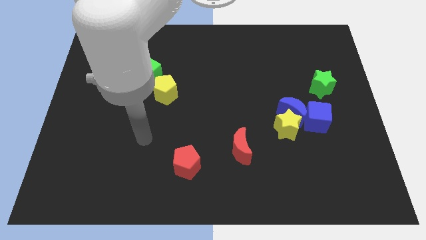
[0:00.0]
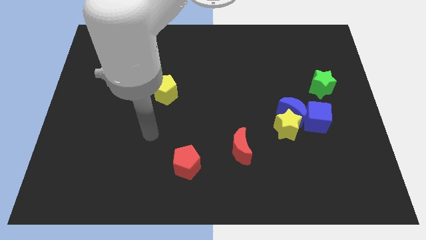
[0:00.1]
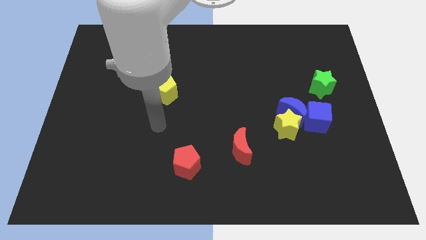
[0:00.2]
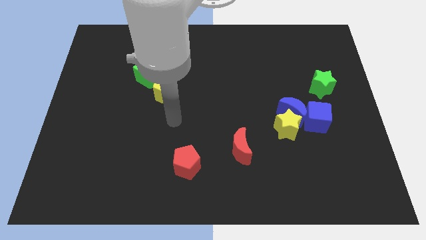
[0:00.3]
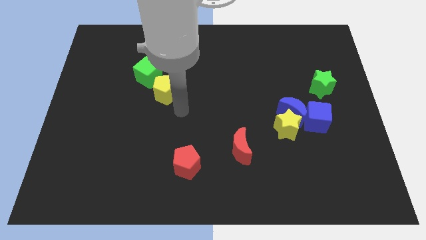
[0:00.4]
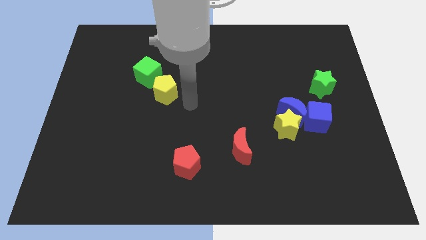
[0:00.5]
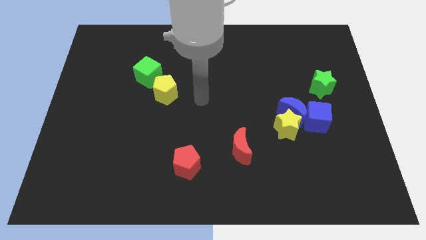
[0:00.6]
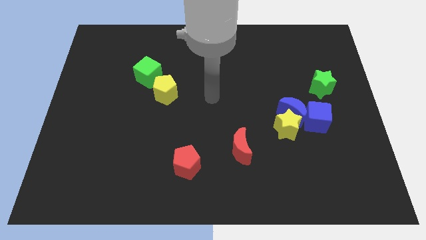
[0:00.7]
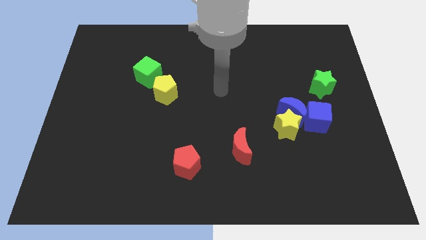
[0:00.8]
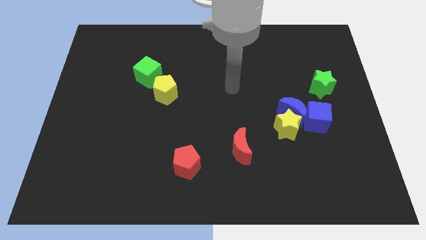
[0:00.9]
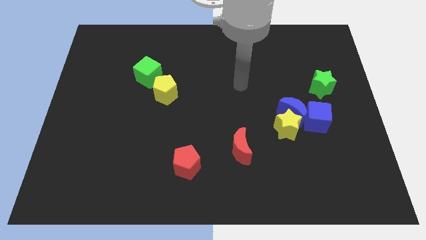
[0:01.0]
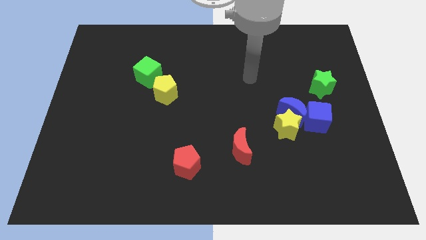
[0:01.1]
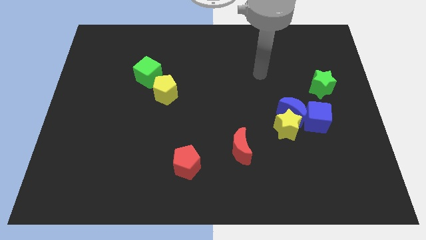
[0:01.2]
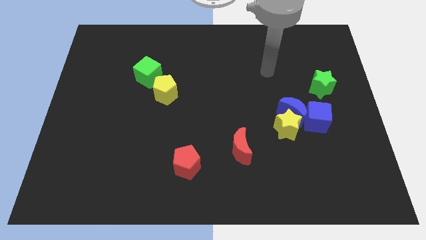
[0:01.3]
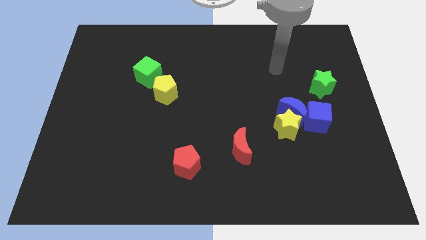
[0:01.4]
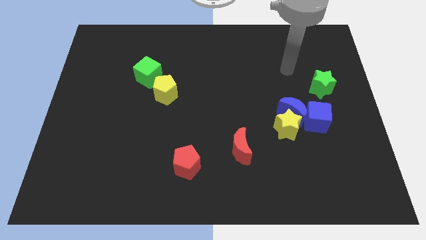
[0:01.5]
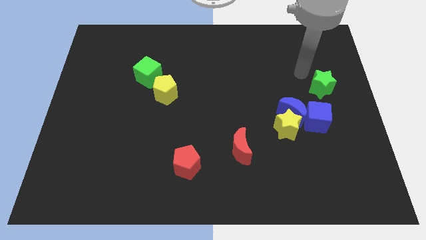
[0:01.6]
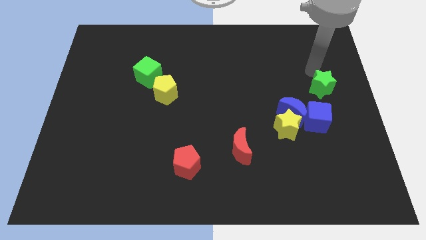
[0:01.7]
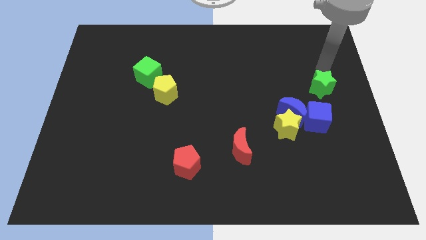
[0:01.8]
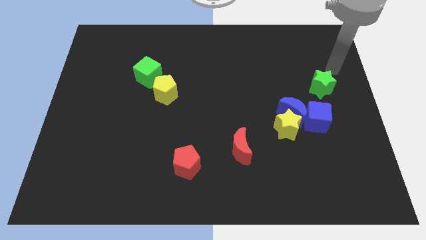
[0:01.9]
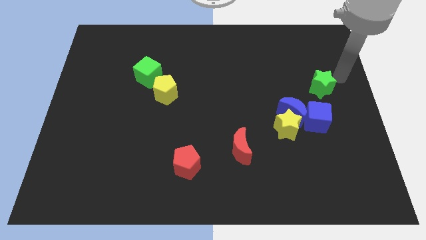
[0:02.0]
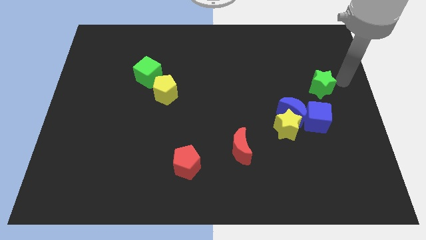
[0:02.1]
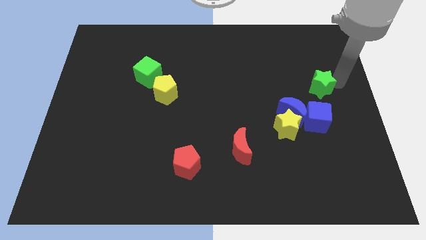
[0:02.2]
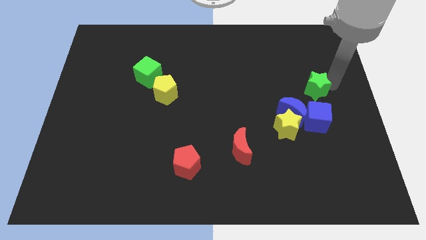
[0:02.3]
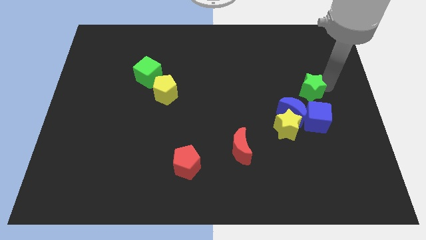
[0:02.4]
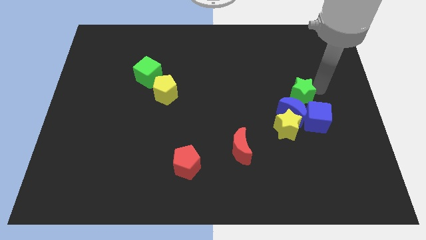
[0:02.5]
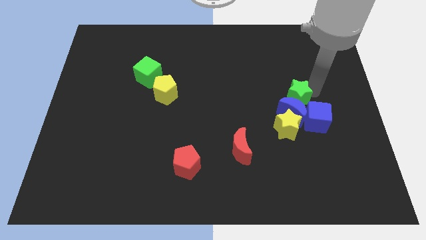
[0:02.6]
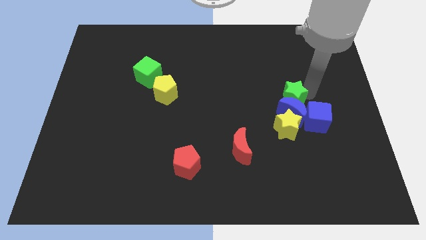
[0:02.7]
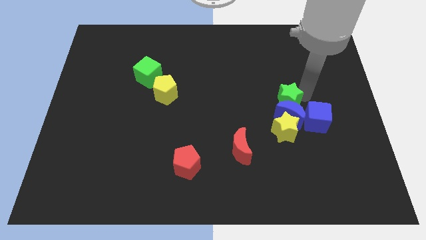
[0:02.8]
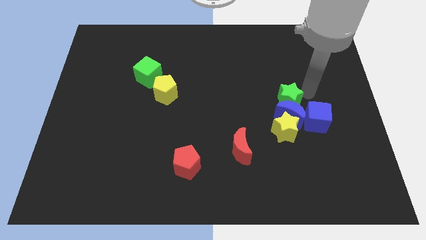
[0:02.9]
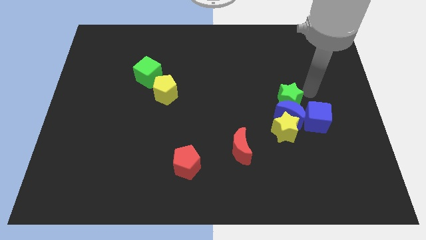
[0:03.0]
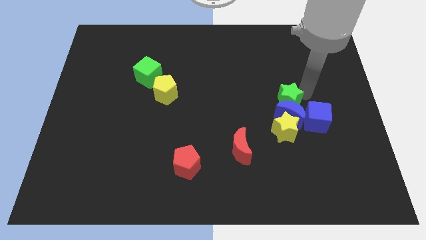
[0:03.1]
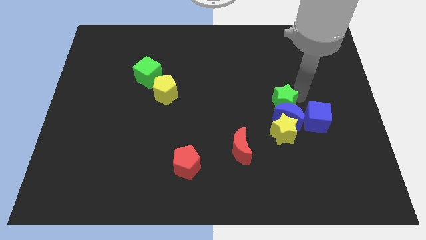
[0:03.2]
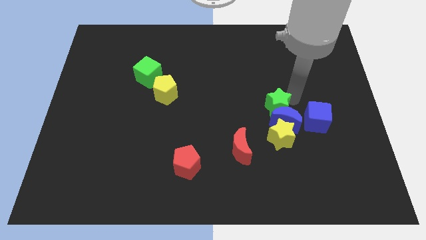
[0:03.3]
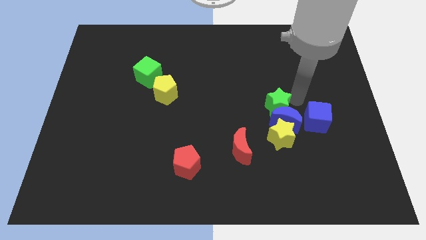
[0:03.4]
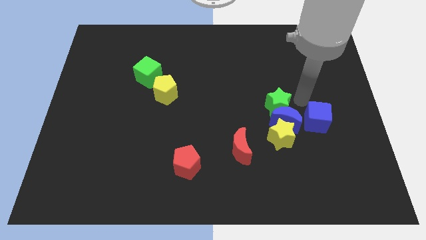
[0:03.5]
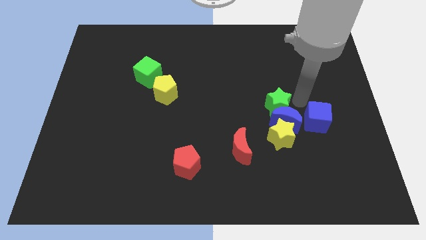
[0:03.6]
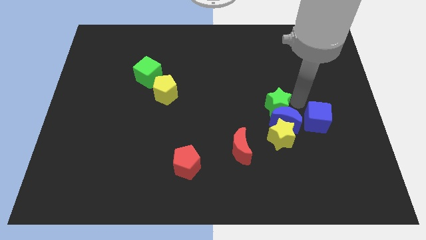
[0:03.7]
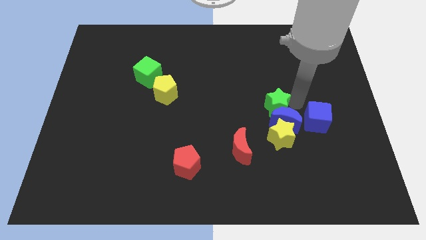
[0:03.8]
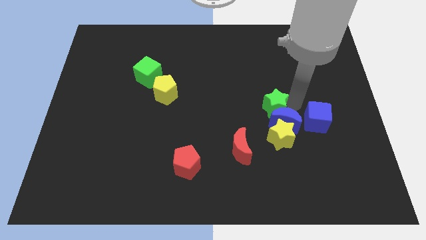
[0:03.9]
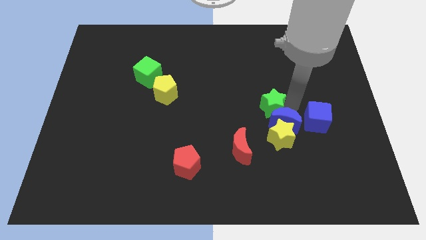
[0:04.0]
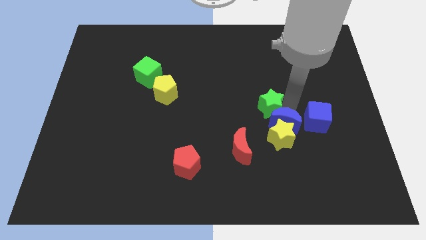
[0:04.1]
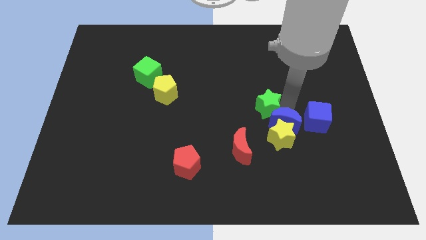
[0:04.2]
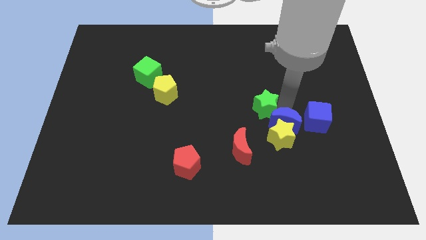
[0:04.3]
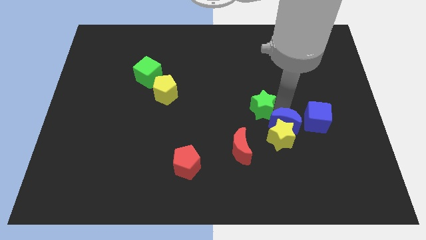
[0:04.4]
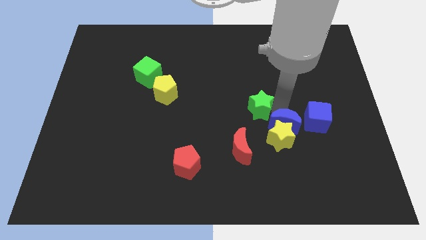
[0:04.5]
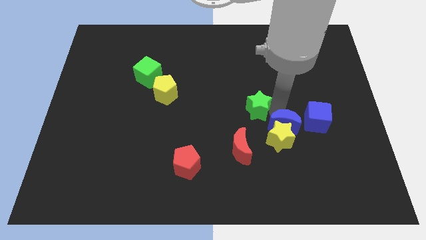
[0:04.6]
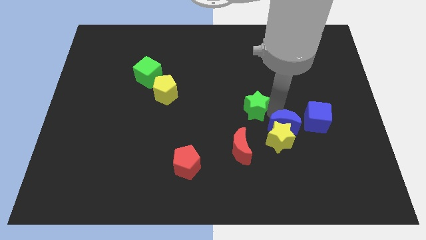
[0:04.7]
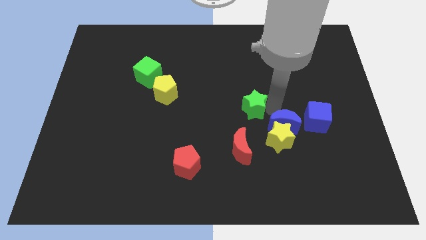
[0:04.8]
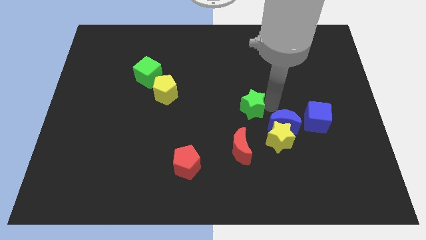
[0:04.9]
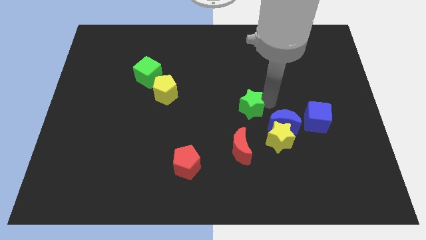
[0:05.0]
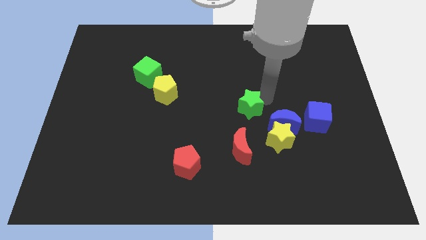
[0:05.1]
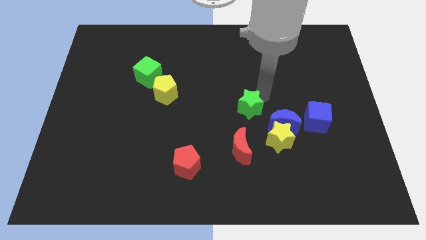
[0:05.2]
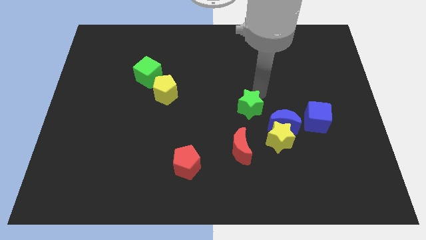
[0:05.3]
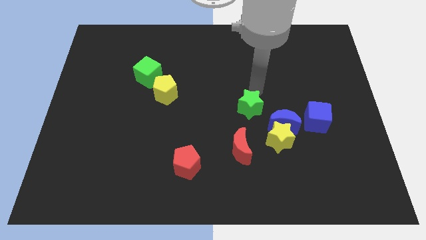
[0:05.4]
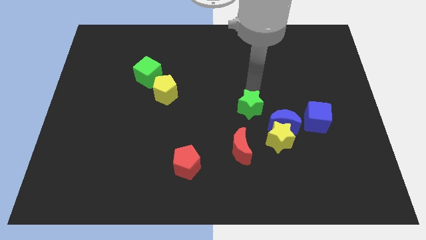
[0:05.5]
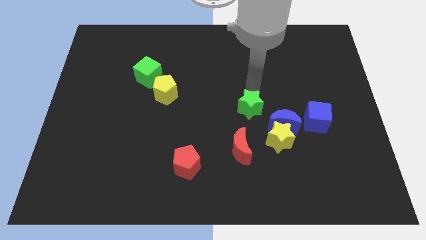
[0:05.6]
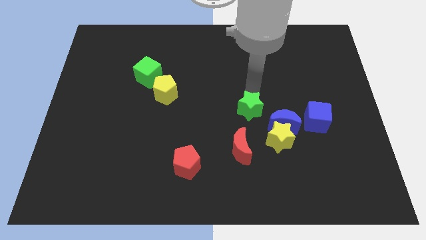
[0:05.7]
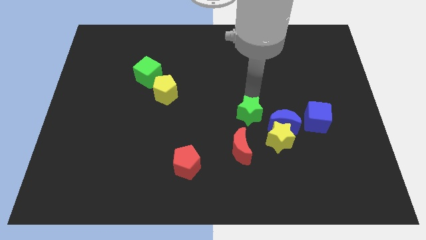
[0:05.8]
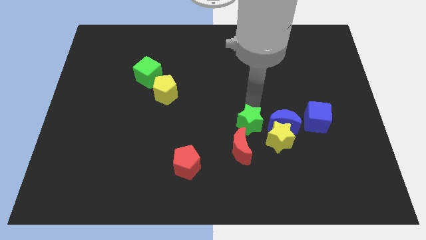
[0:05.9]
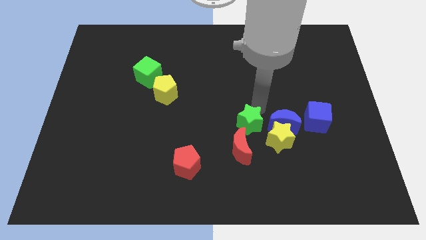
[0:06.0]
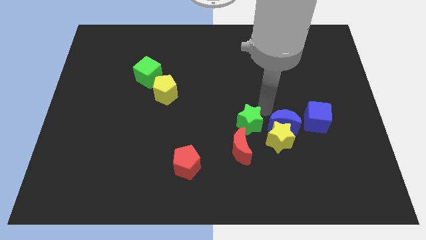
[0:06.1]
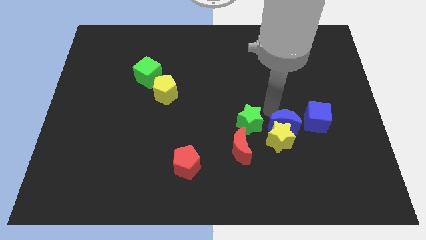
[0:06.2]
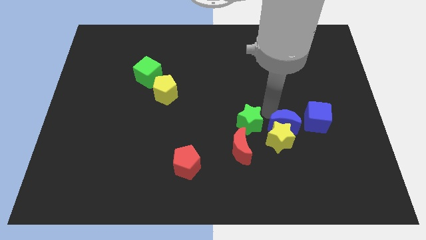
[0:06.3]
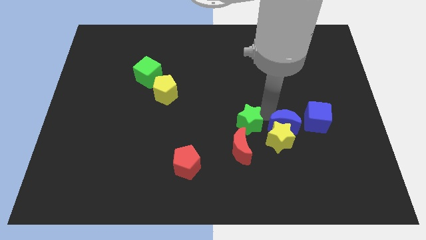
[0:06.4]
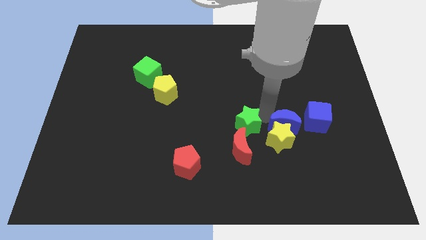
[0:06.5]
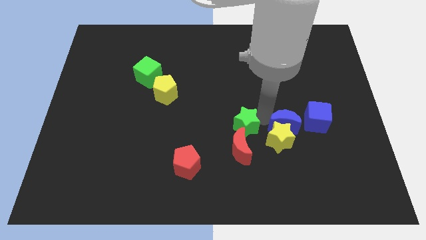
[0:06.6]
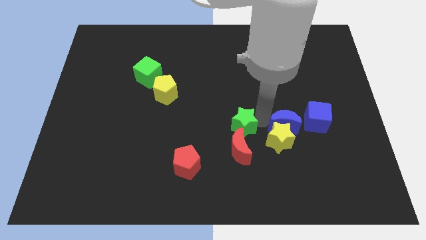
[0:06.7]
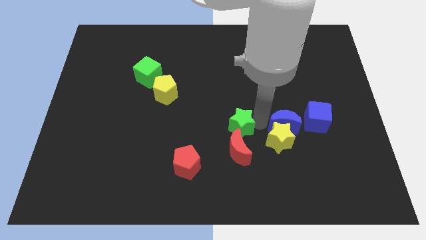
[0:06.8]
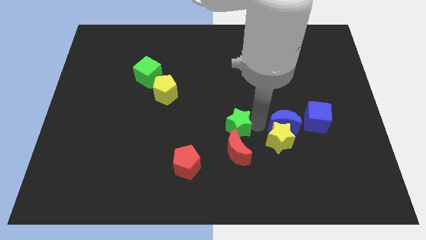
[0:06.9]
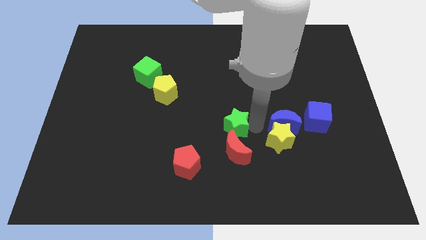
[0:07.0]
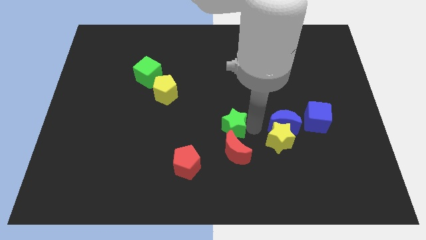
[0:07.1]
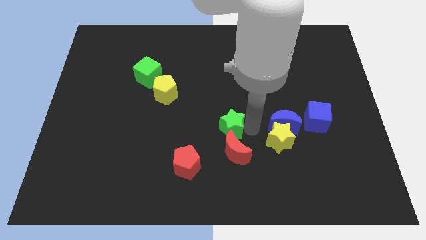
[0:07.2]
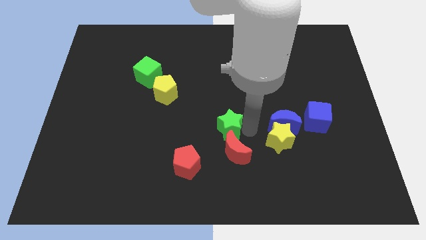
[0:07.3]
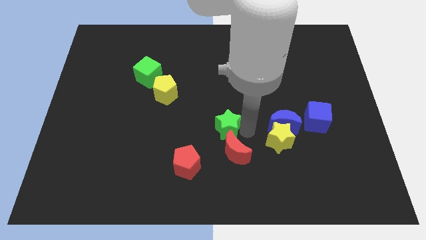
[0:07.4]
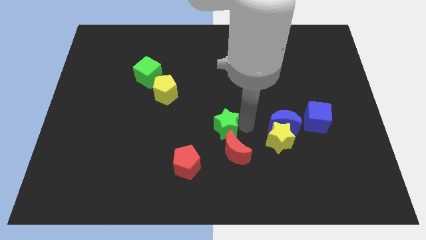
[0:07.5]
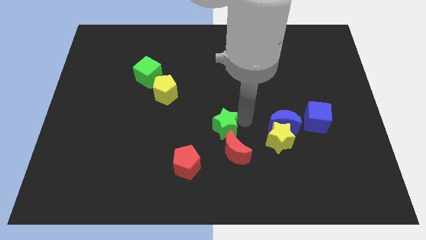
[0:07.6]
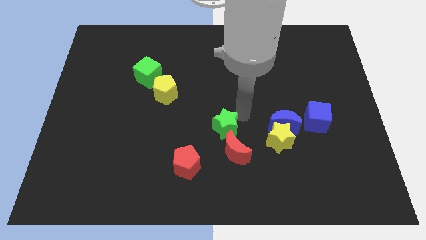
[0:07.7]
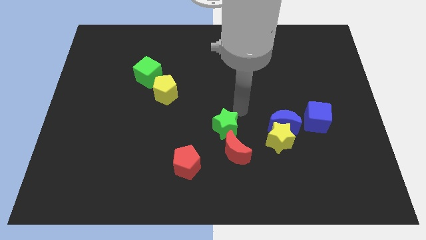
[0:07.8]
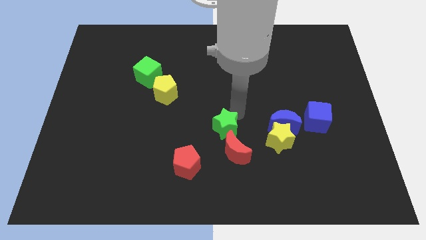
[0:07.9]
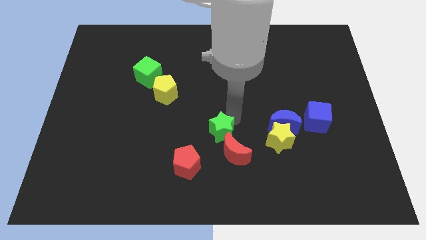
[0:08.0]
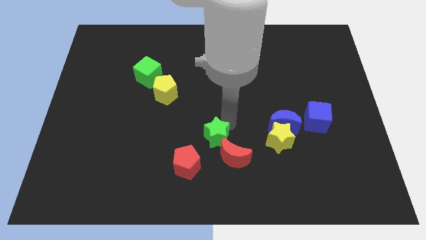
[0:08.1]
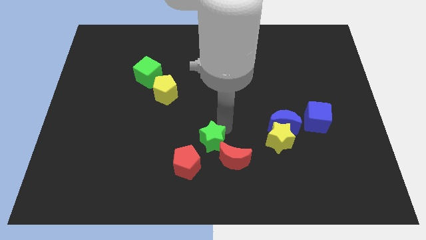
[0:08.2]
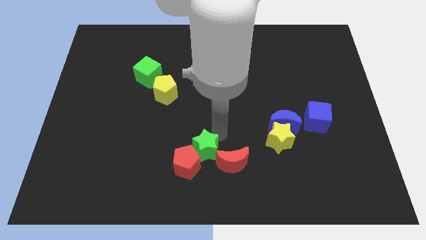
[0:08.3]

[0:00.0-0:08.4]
slide the green star next to the red pentagon

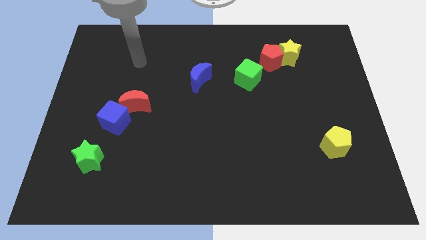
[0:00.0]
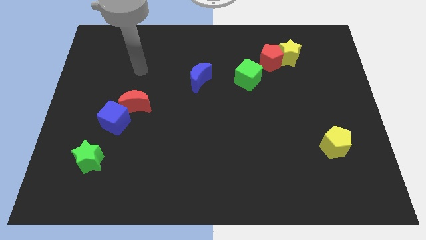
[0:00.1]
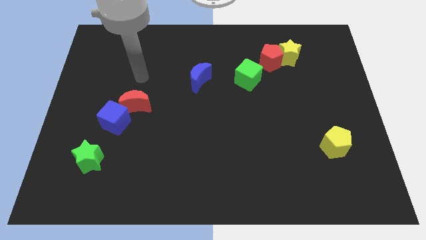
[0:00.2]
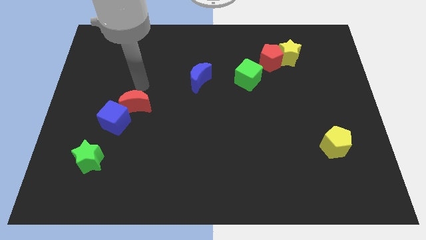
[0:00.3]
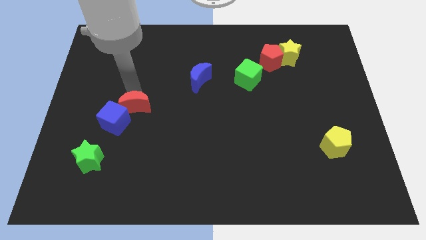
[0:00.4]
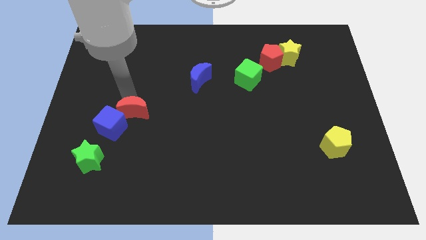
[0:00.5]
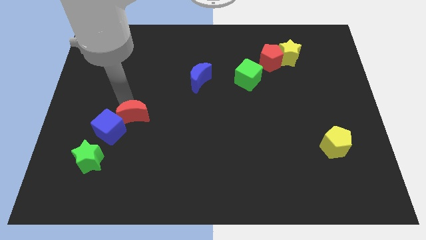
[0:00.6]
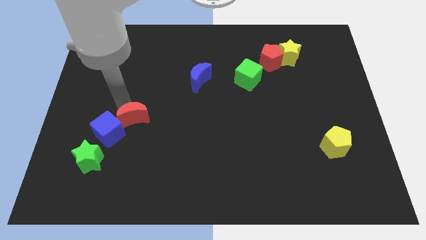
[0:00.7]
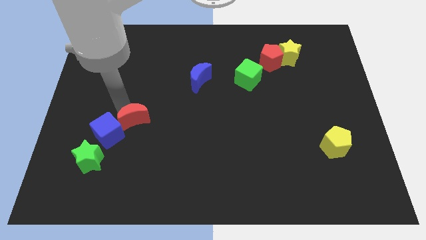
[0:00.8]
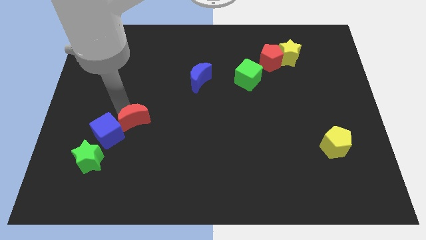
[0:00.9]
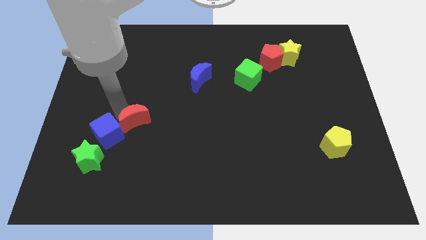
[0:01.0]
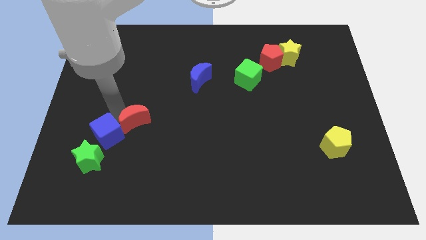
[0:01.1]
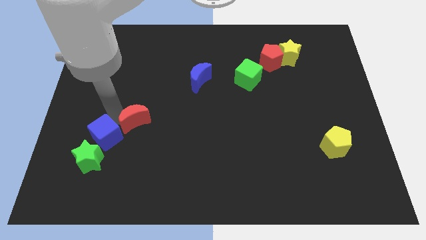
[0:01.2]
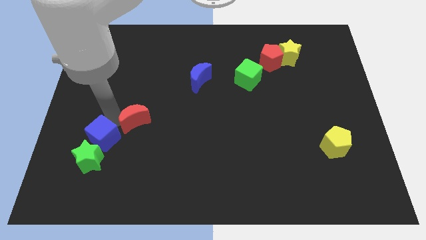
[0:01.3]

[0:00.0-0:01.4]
slide the blue cube to the green star
